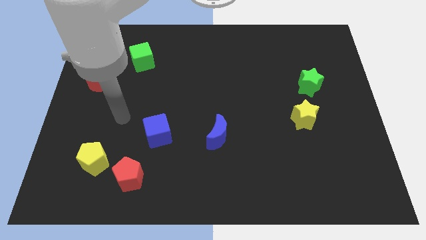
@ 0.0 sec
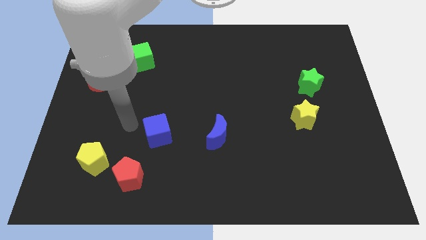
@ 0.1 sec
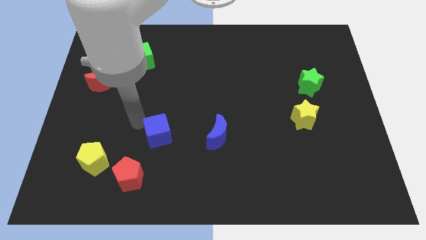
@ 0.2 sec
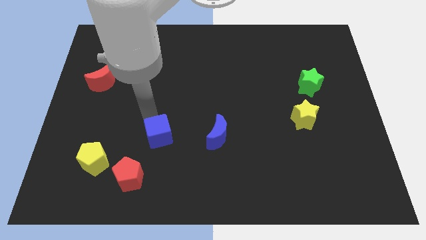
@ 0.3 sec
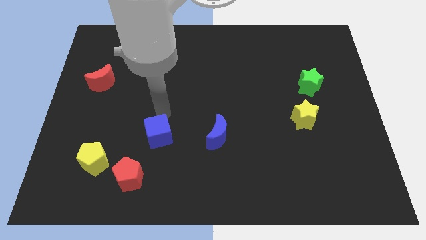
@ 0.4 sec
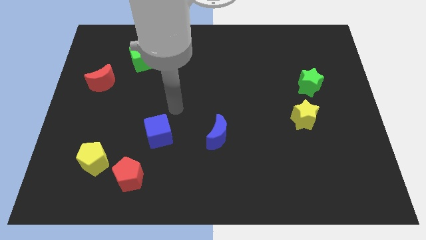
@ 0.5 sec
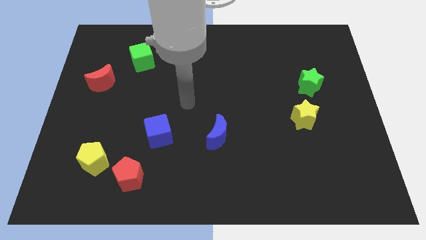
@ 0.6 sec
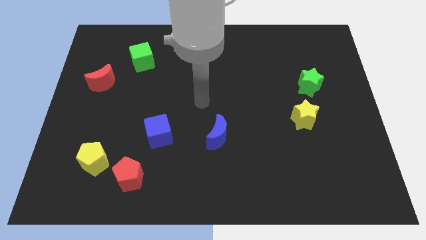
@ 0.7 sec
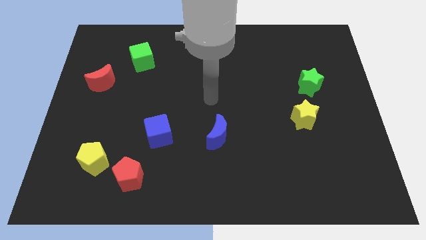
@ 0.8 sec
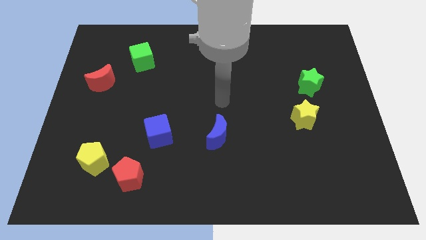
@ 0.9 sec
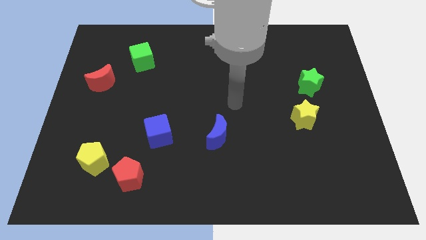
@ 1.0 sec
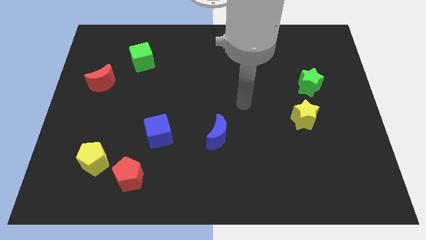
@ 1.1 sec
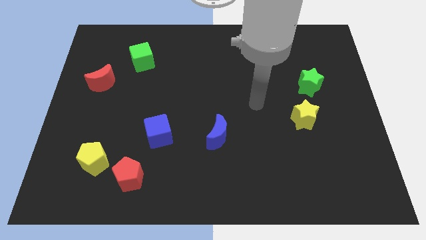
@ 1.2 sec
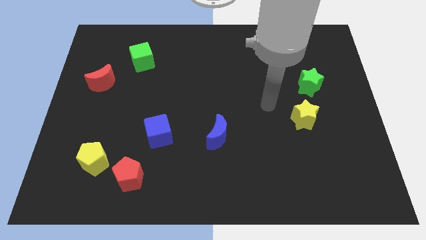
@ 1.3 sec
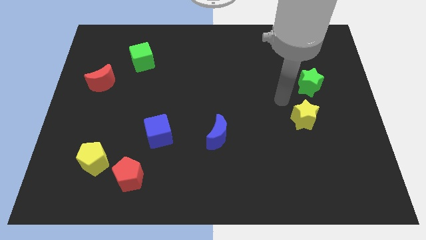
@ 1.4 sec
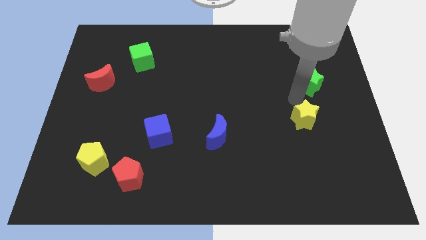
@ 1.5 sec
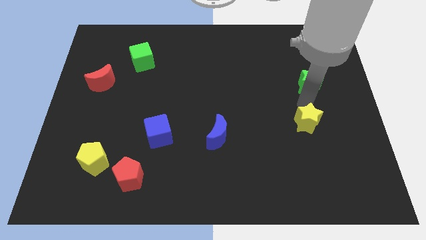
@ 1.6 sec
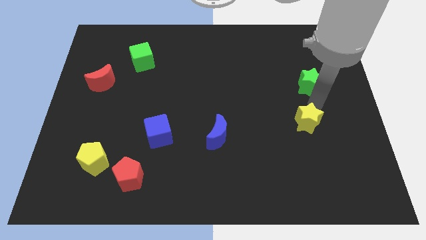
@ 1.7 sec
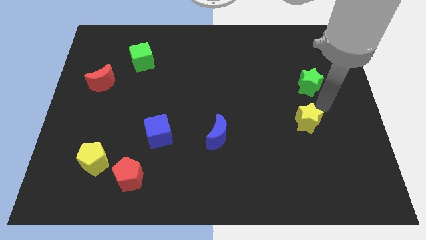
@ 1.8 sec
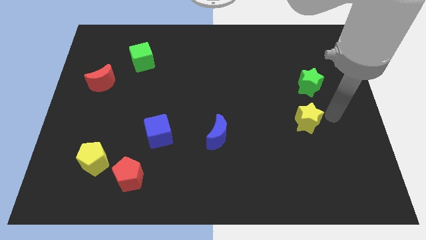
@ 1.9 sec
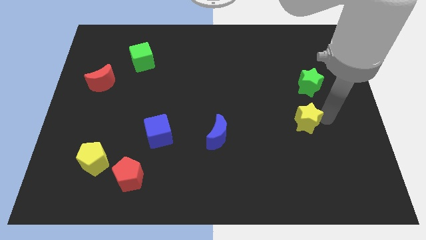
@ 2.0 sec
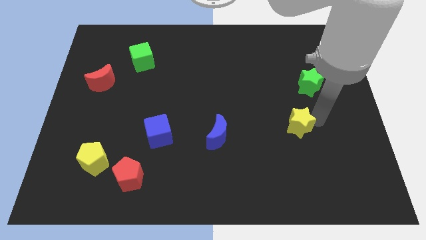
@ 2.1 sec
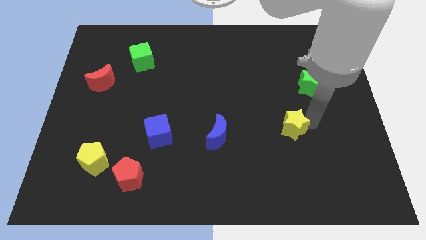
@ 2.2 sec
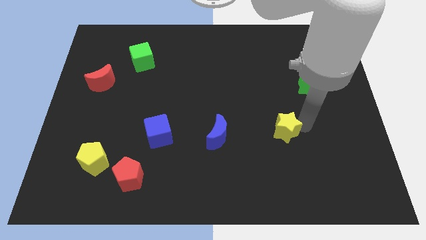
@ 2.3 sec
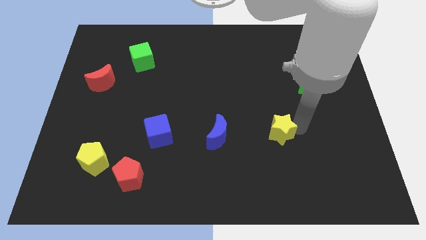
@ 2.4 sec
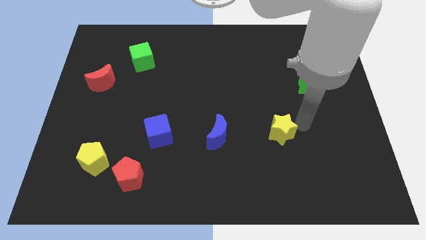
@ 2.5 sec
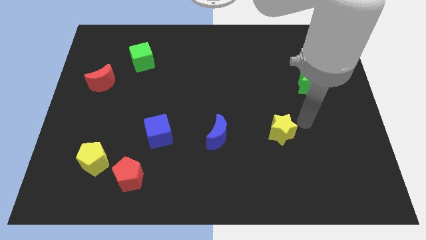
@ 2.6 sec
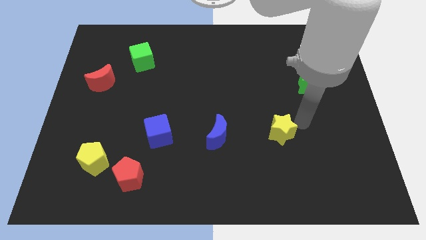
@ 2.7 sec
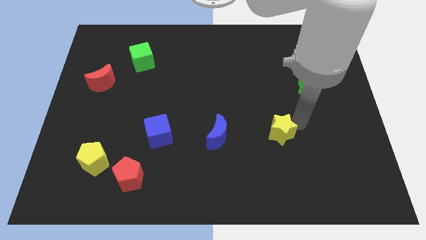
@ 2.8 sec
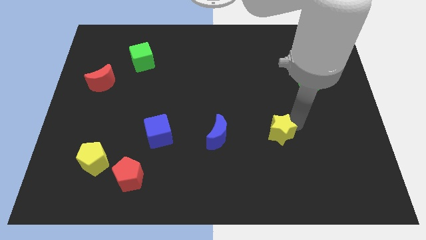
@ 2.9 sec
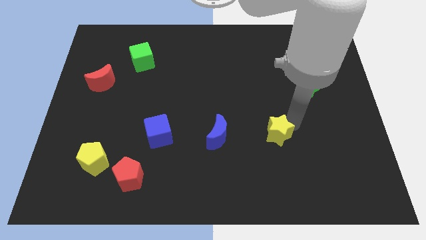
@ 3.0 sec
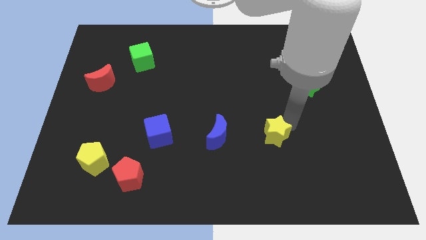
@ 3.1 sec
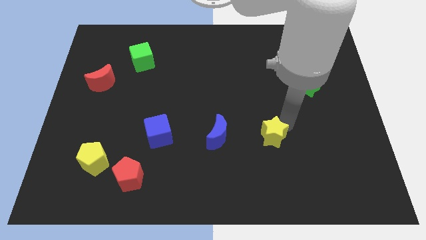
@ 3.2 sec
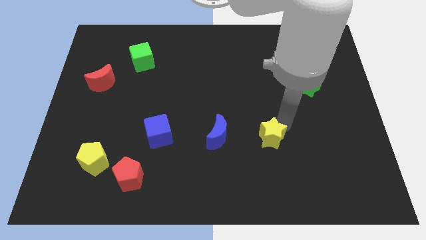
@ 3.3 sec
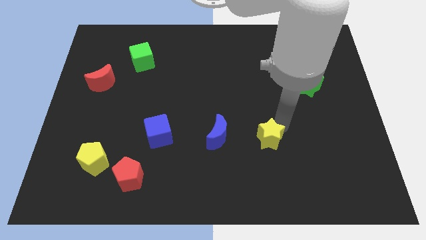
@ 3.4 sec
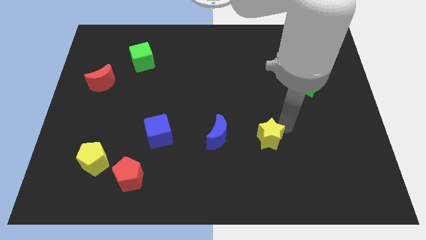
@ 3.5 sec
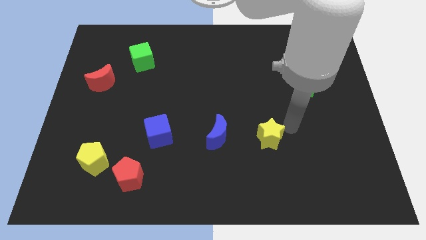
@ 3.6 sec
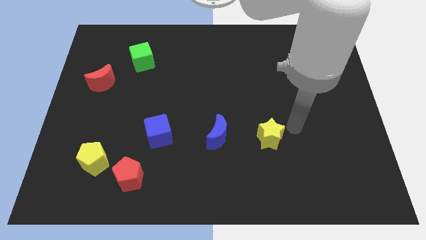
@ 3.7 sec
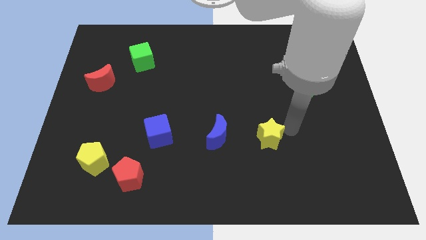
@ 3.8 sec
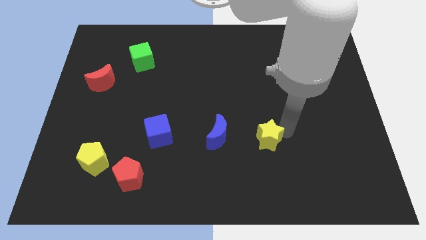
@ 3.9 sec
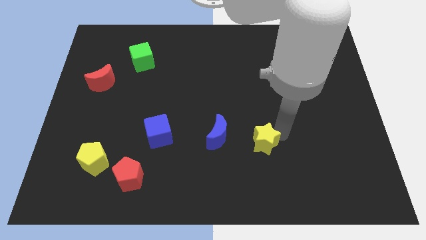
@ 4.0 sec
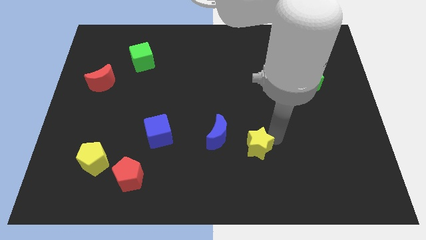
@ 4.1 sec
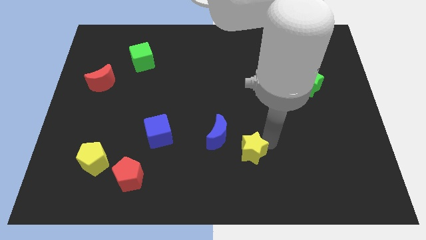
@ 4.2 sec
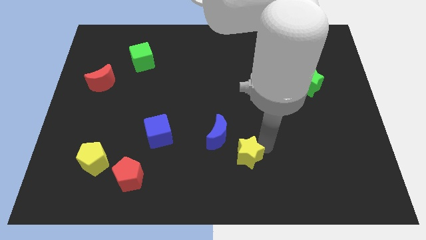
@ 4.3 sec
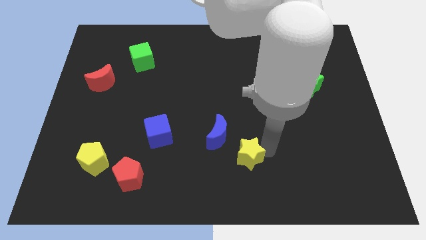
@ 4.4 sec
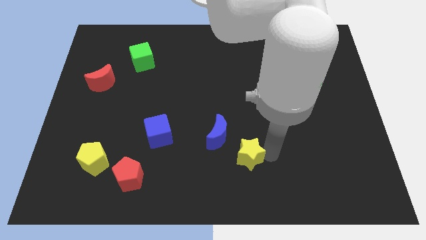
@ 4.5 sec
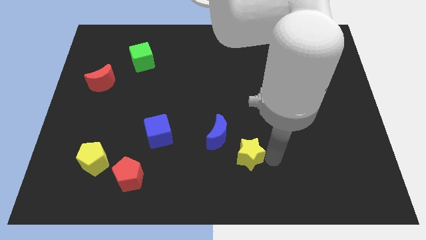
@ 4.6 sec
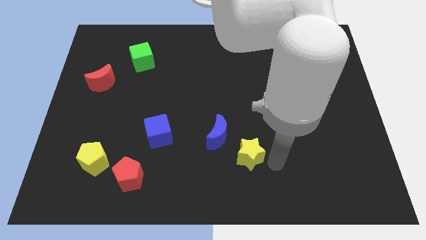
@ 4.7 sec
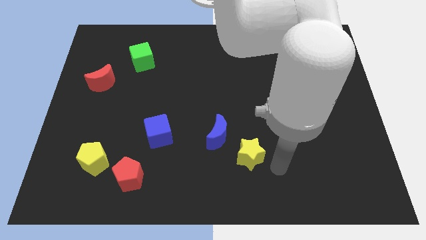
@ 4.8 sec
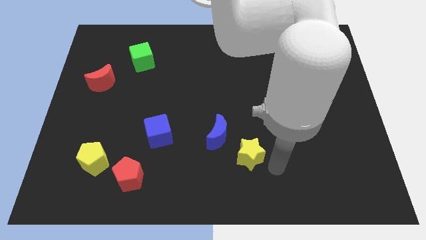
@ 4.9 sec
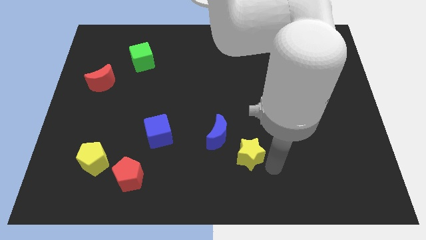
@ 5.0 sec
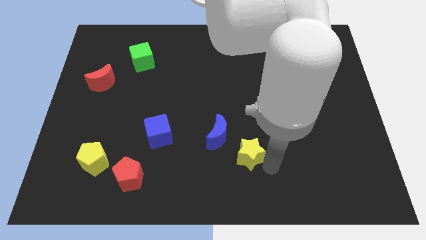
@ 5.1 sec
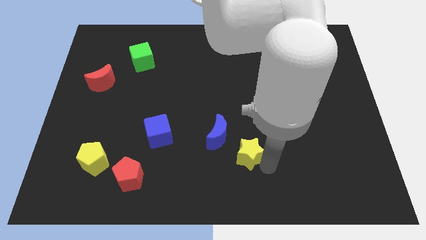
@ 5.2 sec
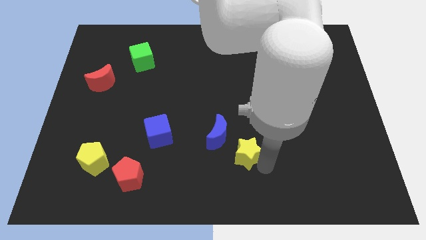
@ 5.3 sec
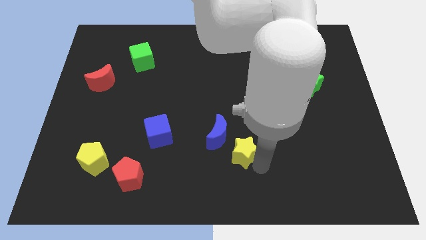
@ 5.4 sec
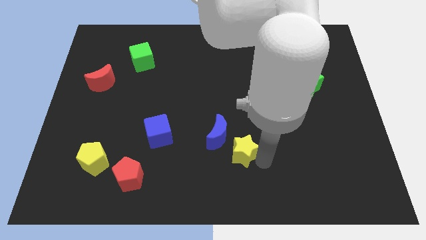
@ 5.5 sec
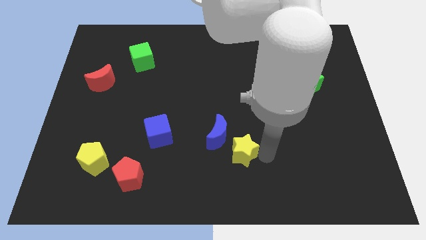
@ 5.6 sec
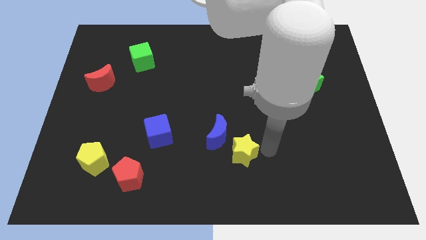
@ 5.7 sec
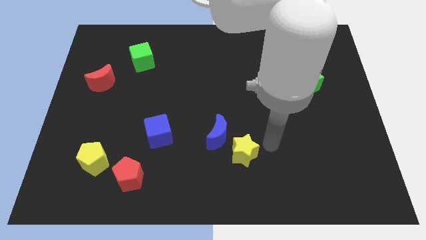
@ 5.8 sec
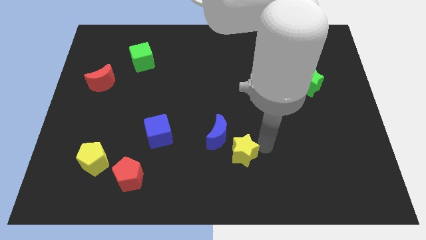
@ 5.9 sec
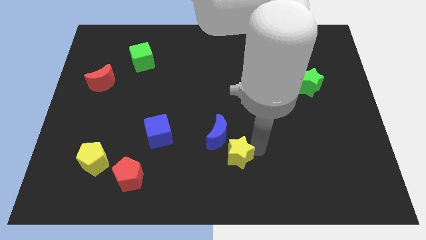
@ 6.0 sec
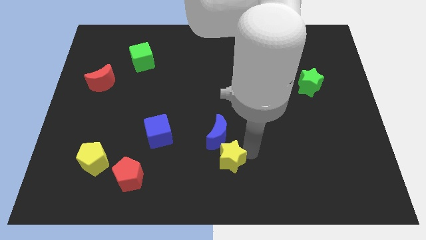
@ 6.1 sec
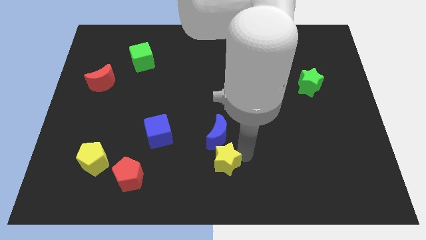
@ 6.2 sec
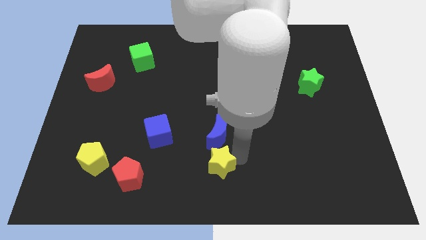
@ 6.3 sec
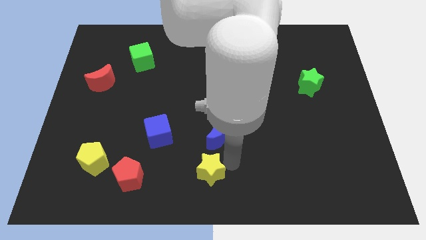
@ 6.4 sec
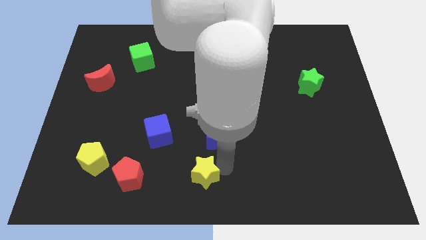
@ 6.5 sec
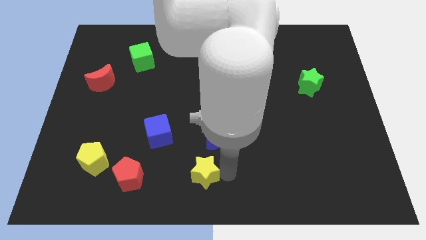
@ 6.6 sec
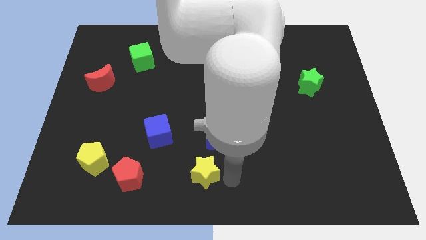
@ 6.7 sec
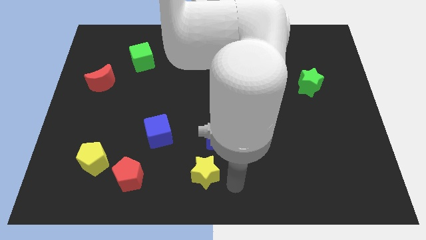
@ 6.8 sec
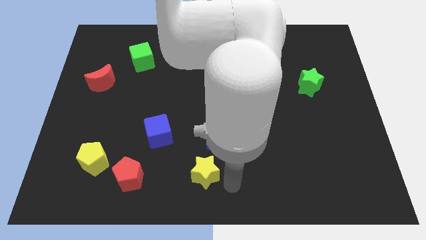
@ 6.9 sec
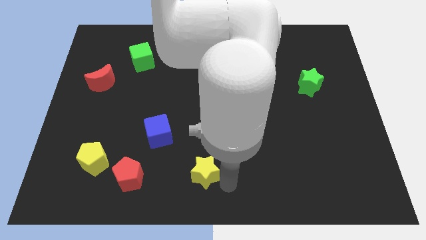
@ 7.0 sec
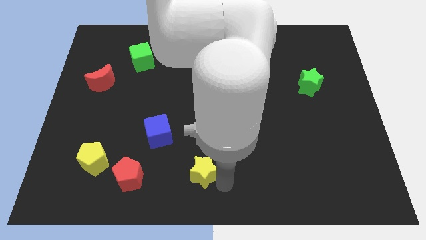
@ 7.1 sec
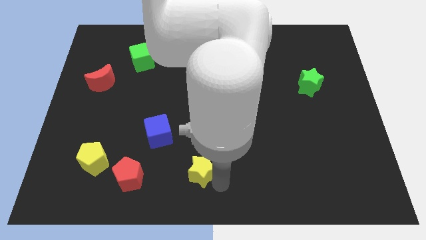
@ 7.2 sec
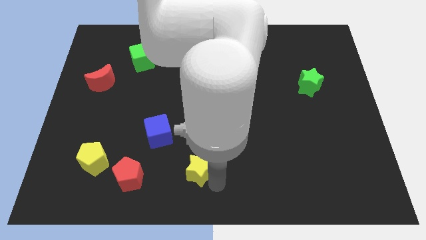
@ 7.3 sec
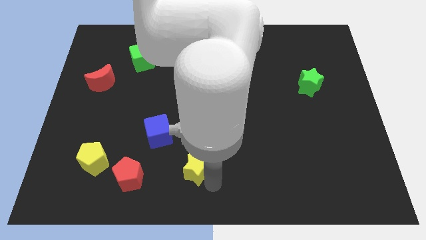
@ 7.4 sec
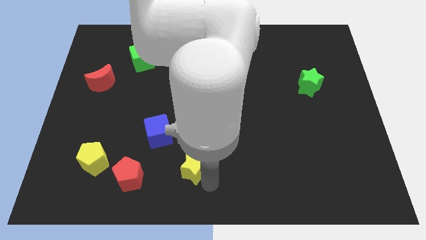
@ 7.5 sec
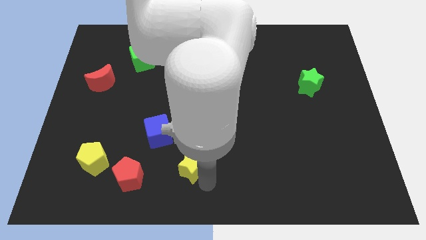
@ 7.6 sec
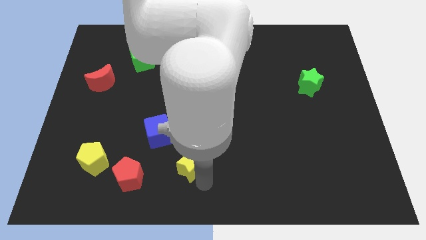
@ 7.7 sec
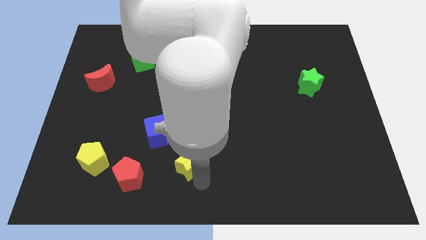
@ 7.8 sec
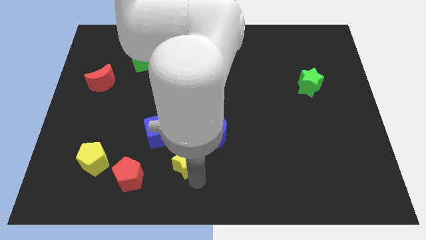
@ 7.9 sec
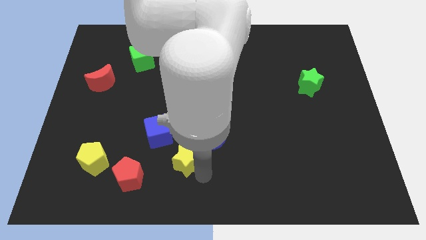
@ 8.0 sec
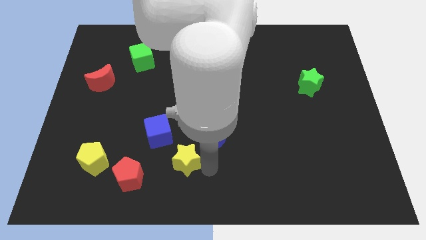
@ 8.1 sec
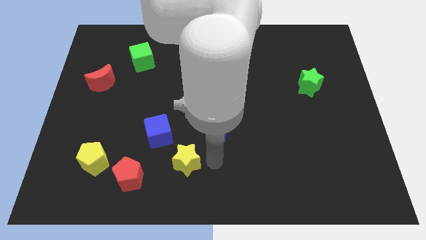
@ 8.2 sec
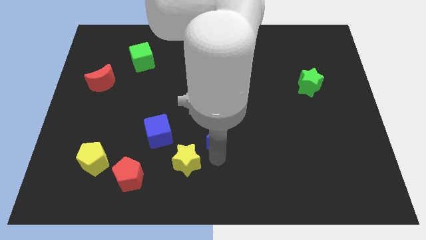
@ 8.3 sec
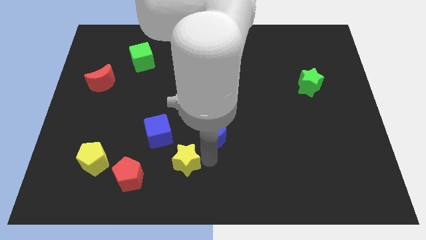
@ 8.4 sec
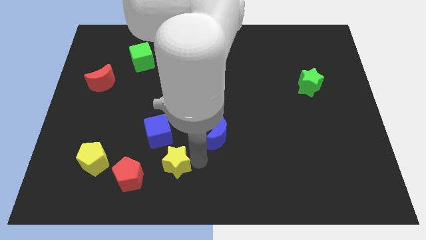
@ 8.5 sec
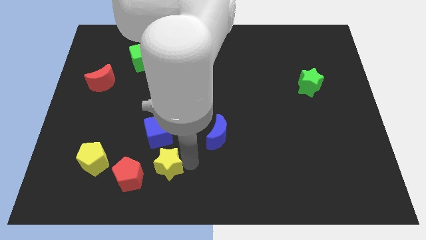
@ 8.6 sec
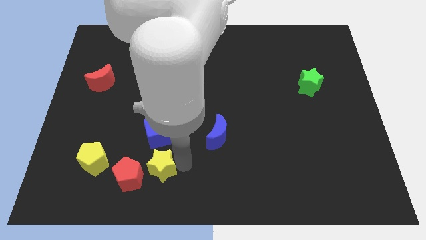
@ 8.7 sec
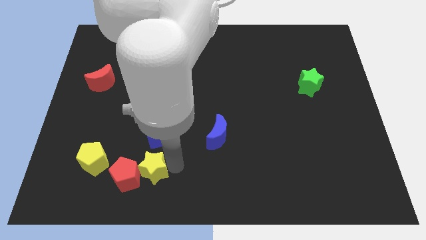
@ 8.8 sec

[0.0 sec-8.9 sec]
slide the yellow star towards the red pentagon
